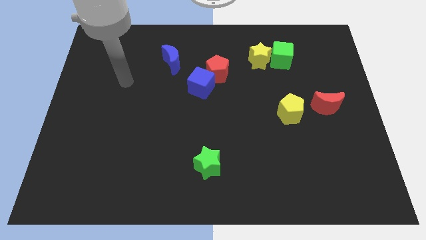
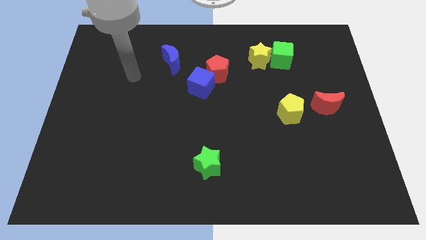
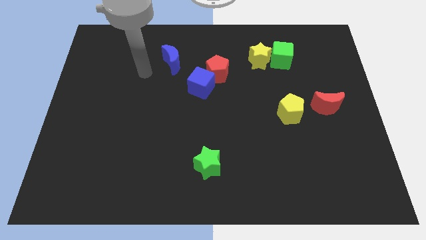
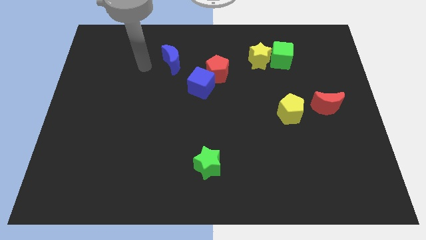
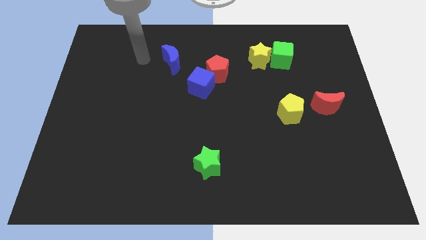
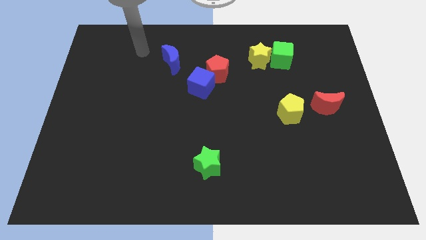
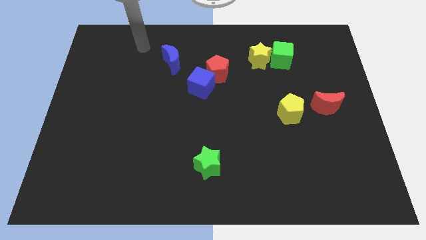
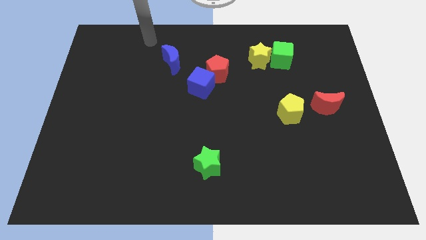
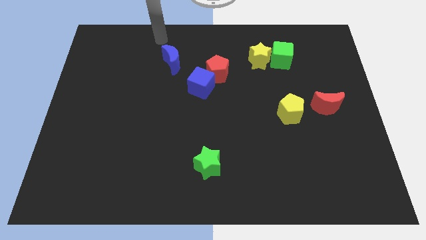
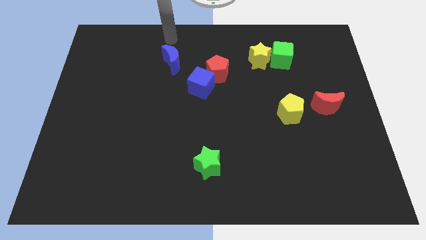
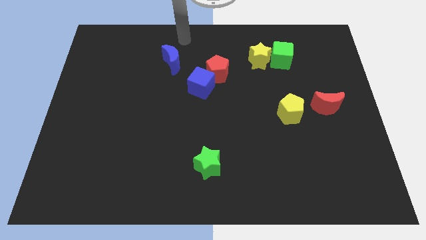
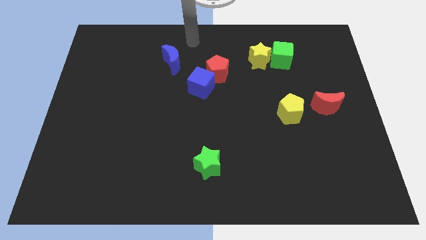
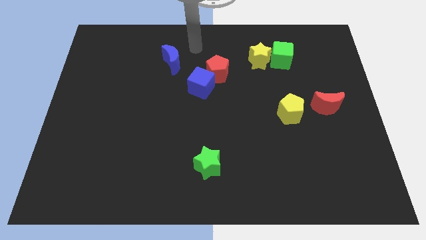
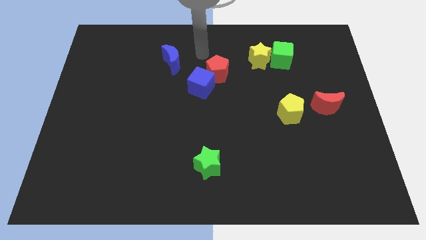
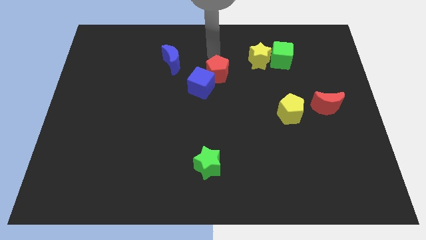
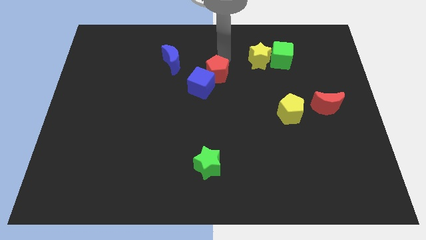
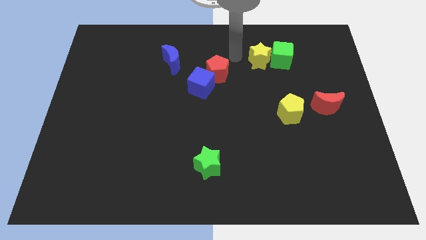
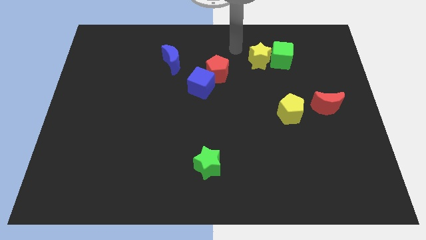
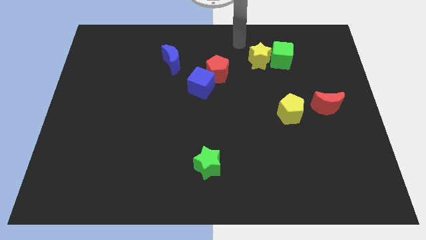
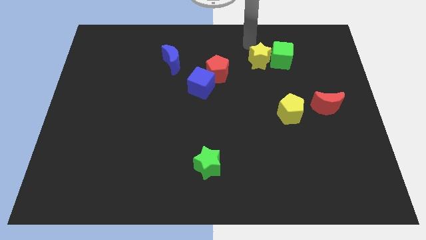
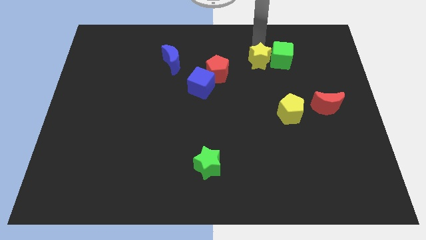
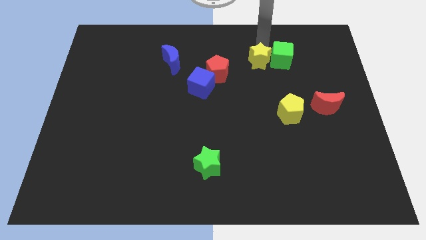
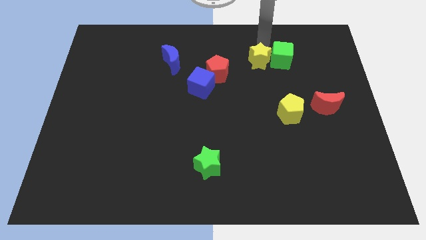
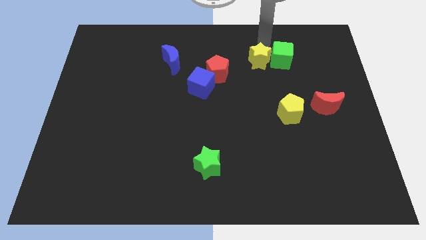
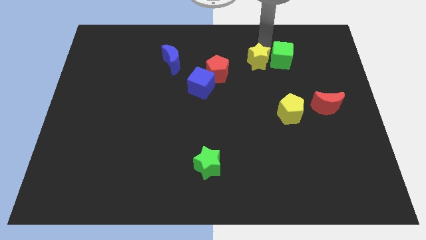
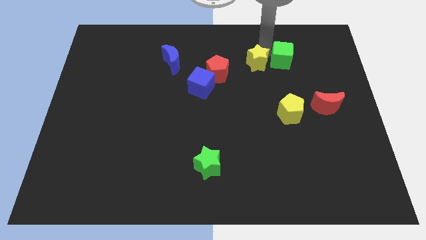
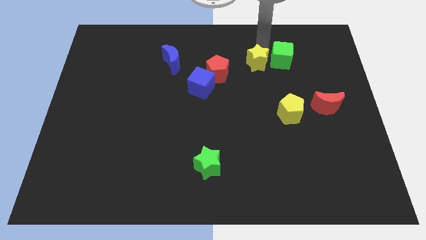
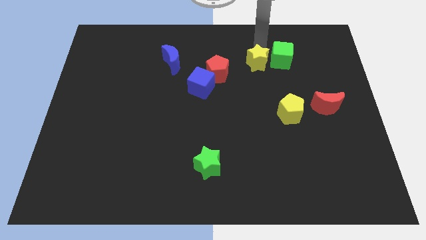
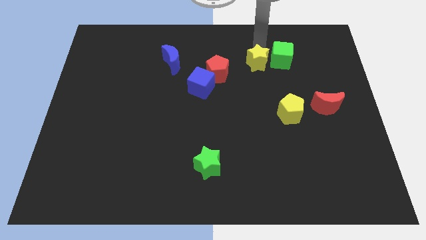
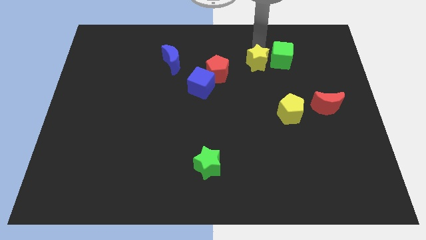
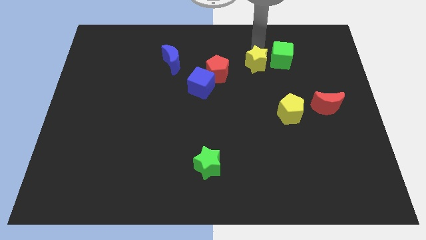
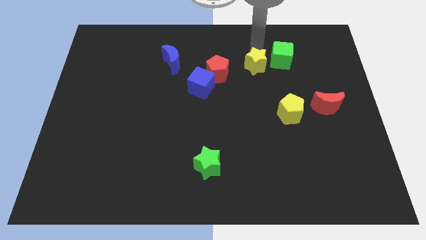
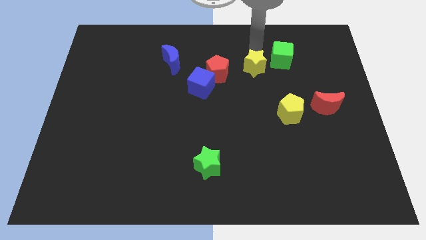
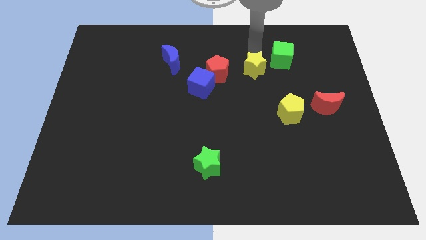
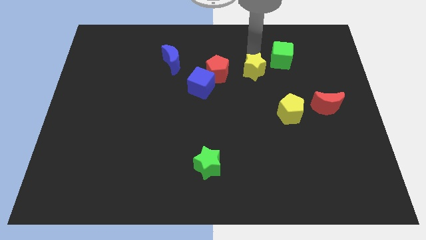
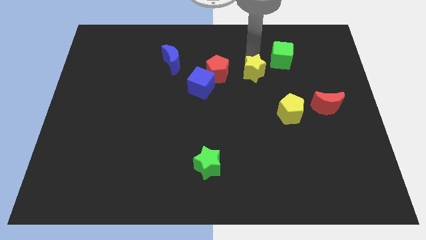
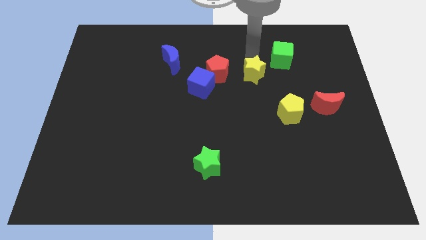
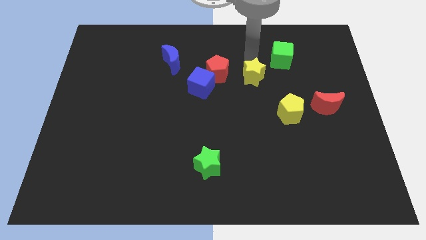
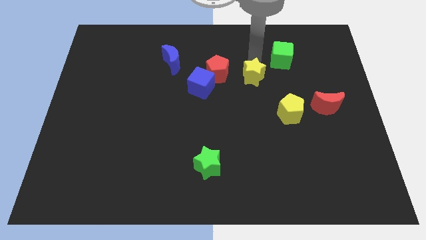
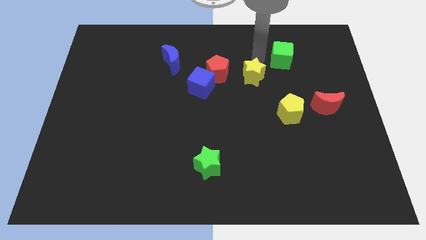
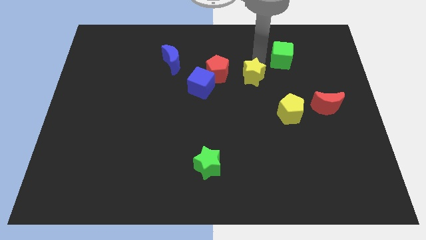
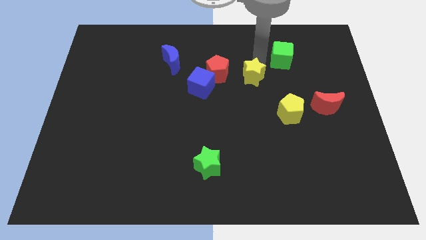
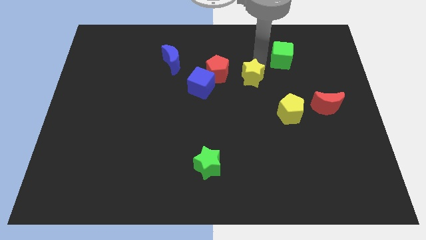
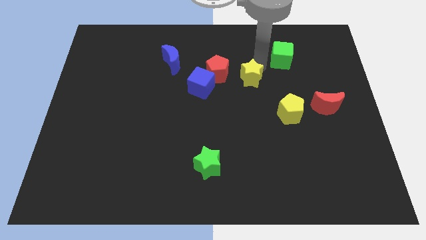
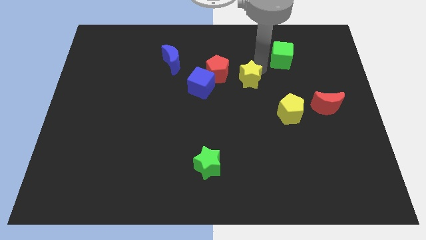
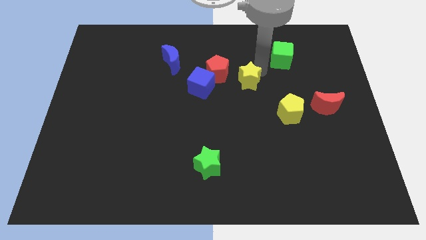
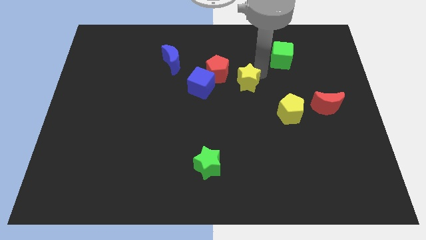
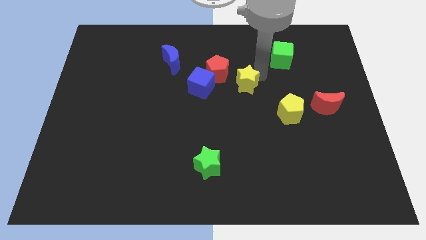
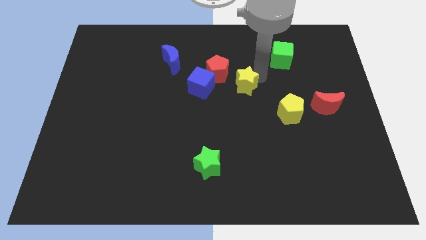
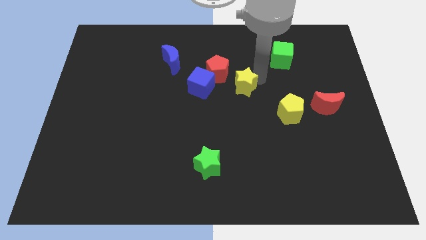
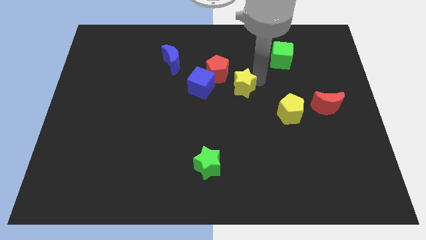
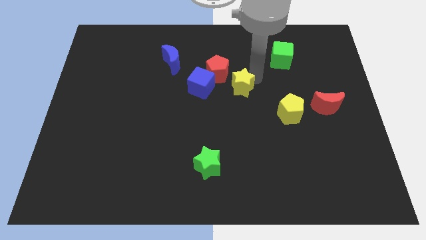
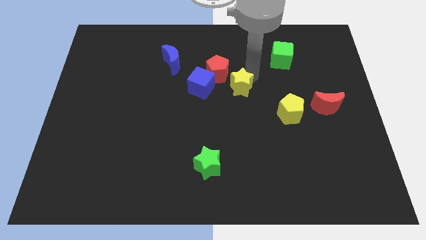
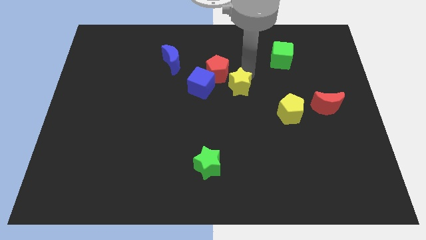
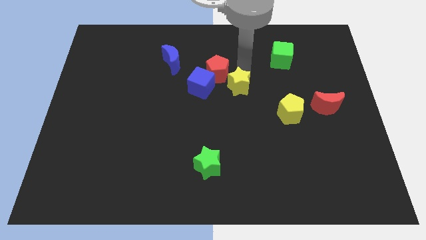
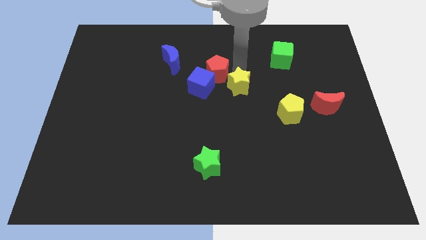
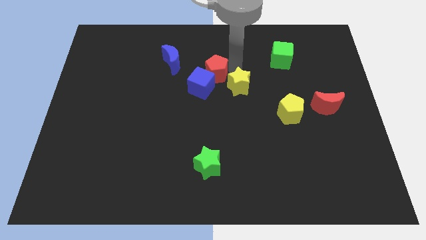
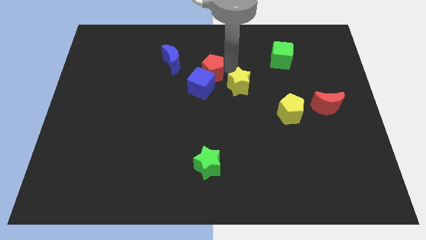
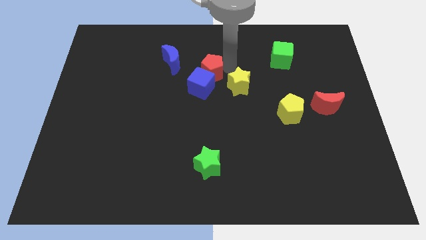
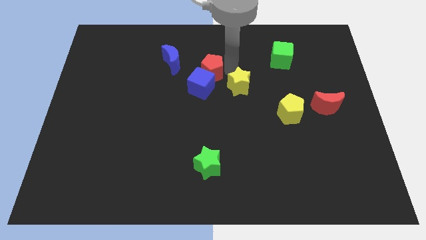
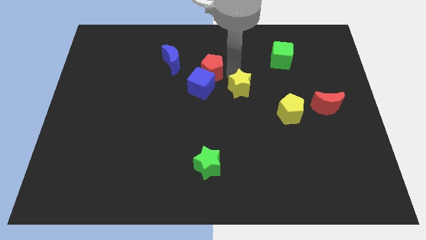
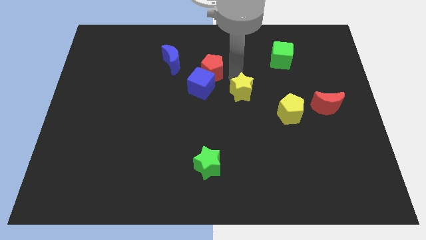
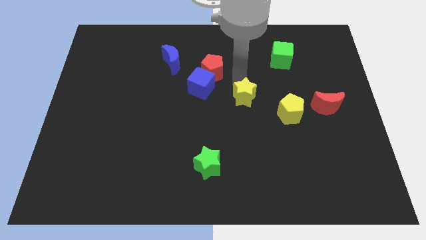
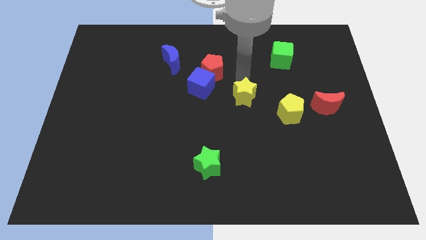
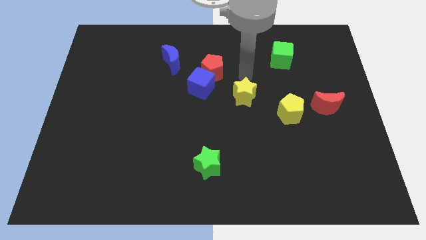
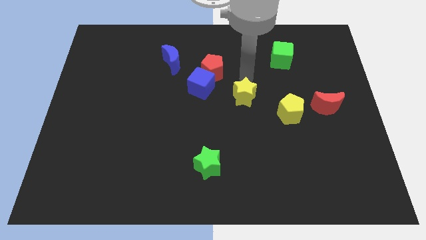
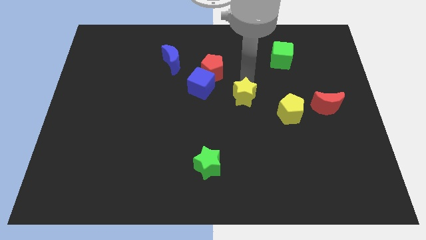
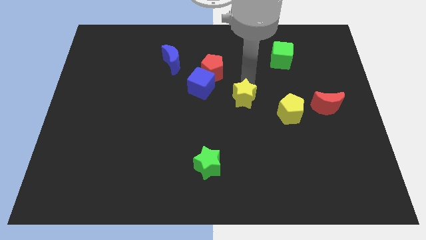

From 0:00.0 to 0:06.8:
slide the yellow star to the left of the yellow pentagon
